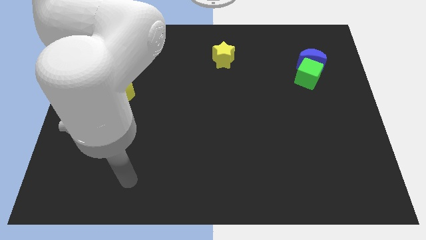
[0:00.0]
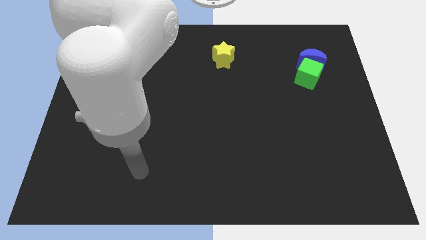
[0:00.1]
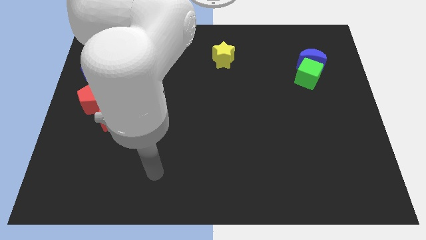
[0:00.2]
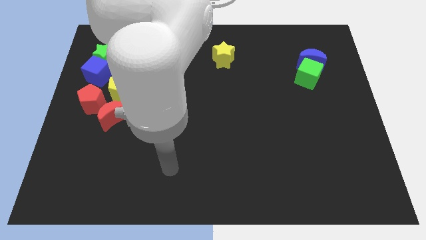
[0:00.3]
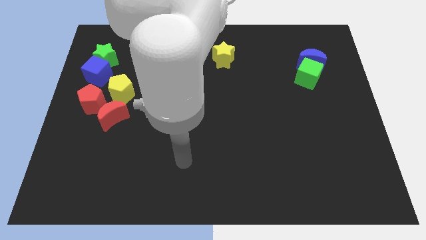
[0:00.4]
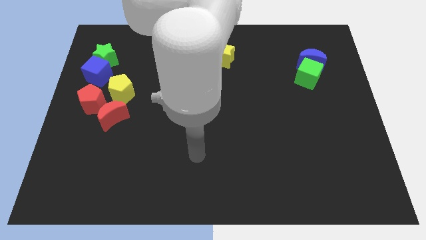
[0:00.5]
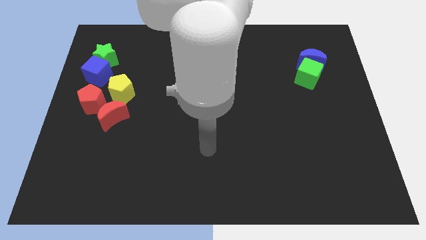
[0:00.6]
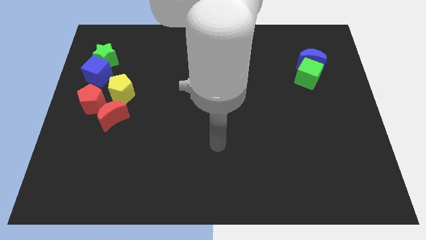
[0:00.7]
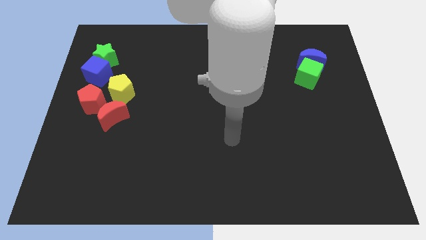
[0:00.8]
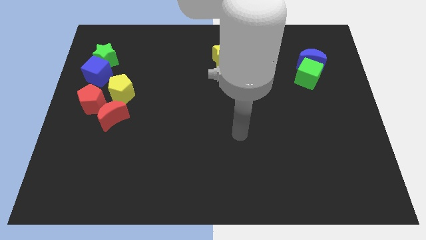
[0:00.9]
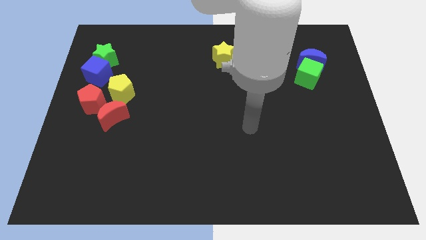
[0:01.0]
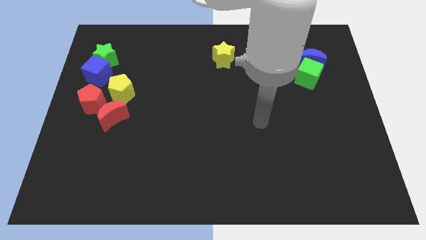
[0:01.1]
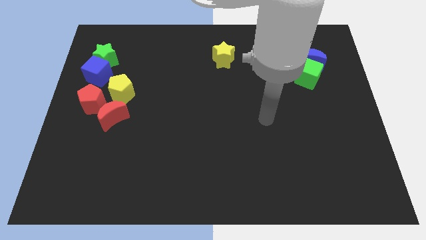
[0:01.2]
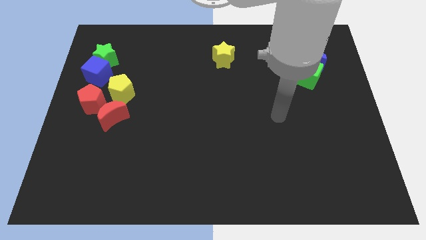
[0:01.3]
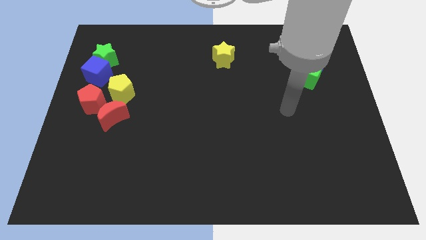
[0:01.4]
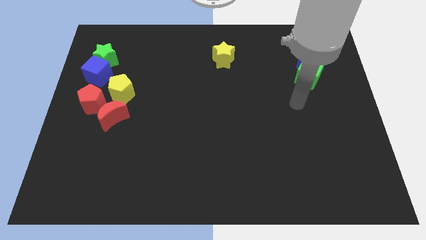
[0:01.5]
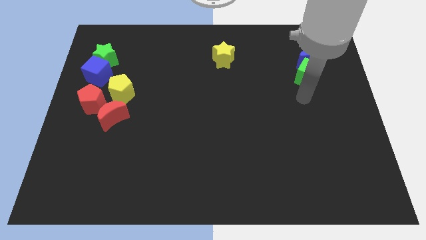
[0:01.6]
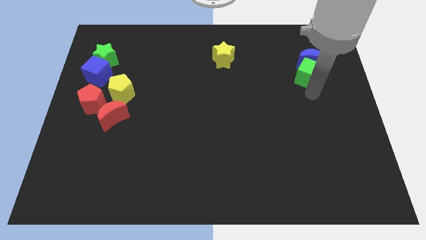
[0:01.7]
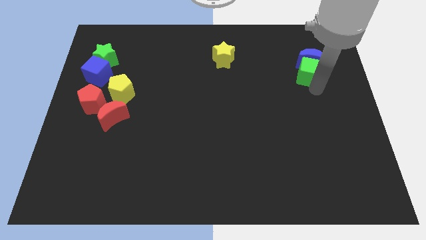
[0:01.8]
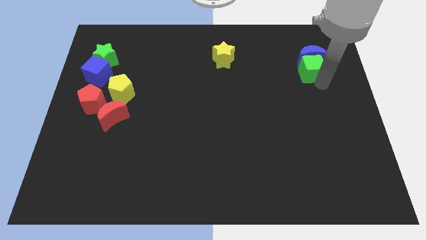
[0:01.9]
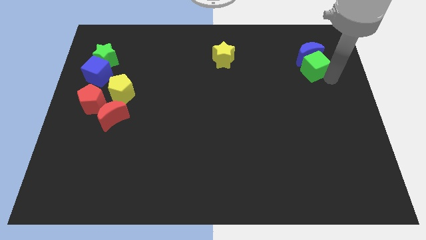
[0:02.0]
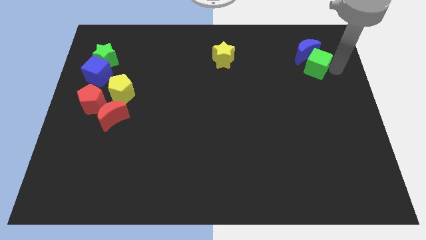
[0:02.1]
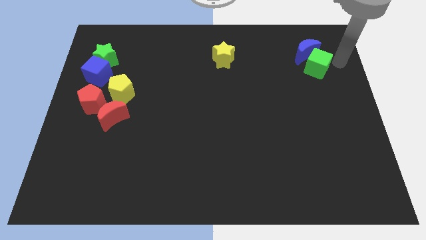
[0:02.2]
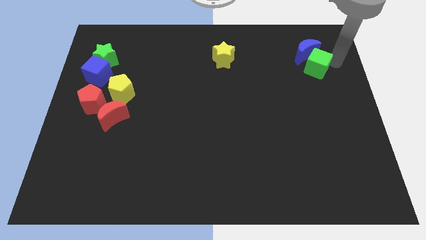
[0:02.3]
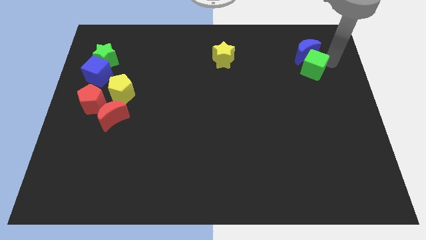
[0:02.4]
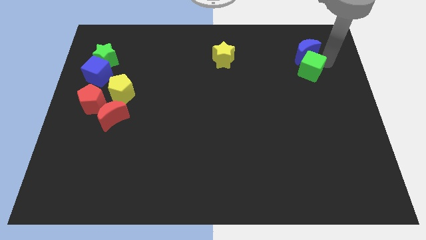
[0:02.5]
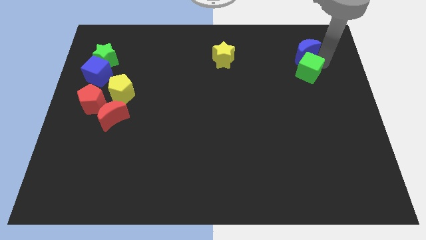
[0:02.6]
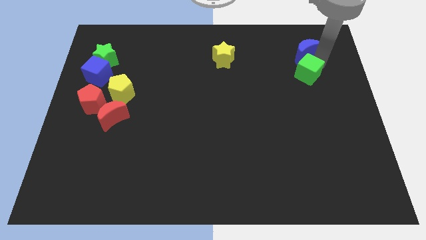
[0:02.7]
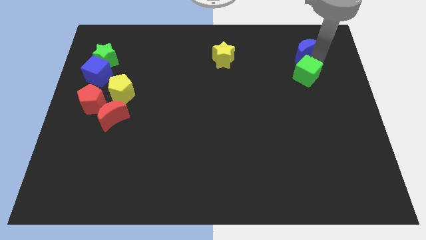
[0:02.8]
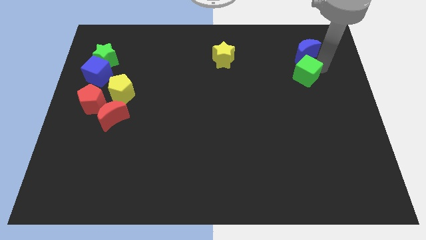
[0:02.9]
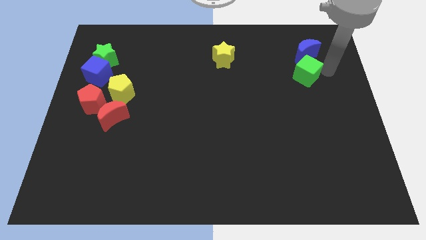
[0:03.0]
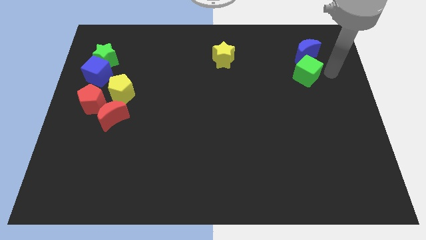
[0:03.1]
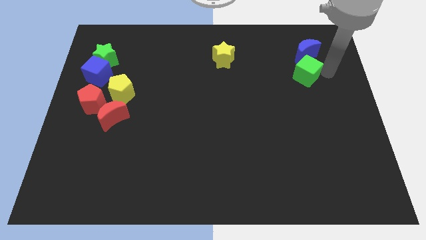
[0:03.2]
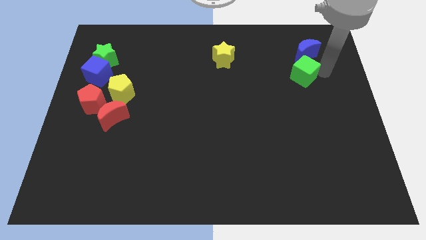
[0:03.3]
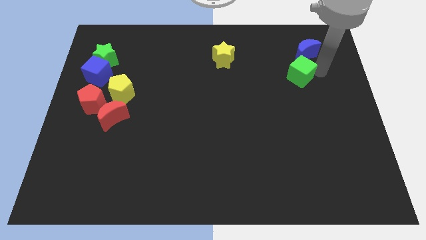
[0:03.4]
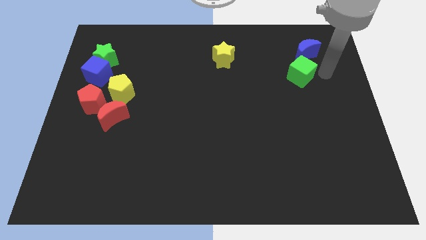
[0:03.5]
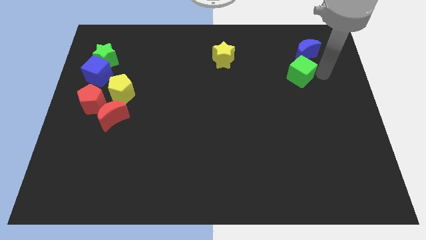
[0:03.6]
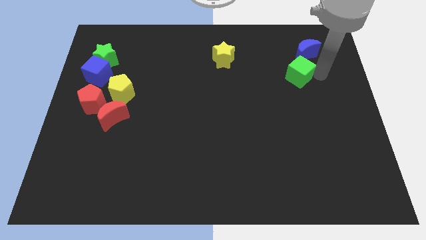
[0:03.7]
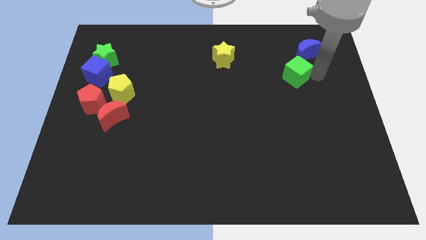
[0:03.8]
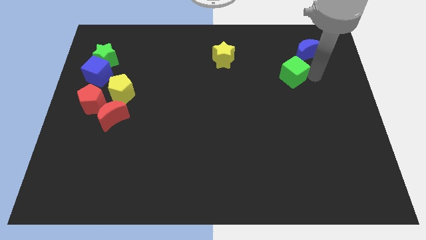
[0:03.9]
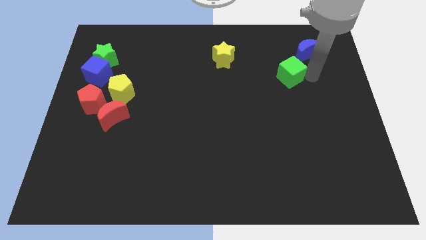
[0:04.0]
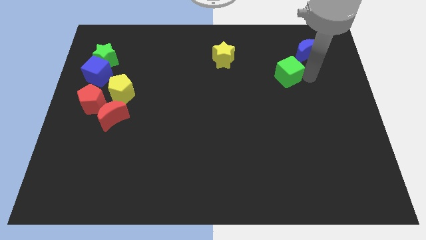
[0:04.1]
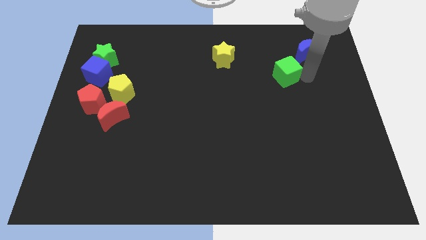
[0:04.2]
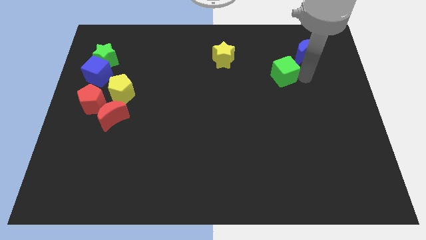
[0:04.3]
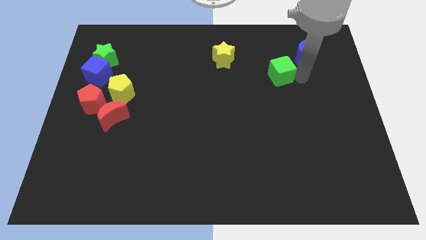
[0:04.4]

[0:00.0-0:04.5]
move the green cube to the left a little

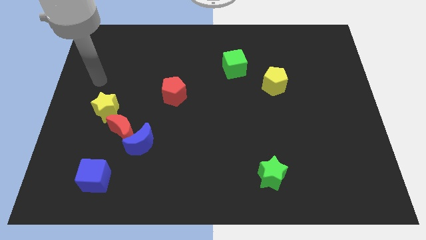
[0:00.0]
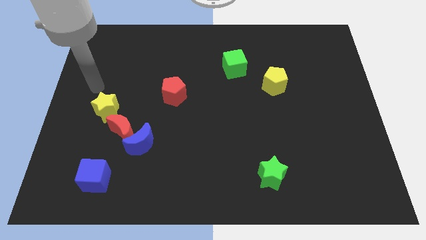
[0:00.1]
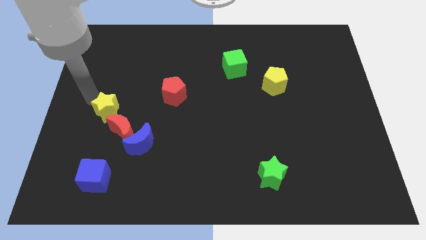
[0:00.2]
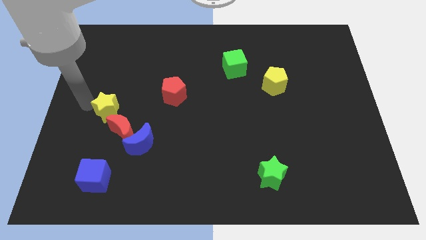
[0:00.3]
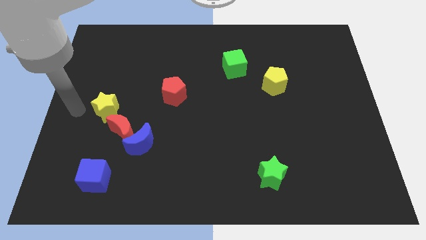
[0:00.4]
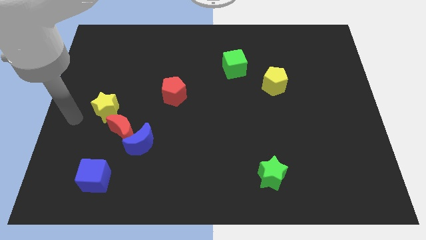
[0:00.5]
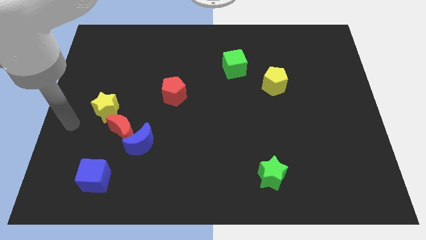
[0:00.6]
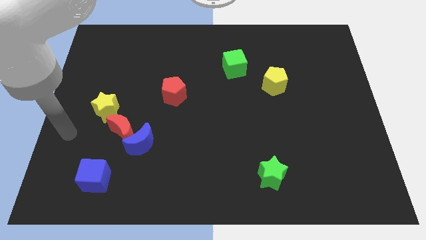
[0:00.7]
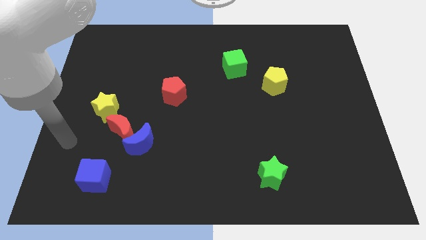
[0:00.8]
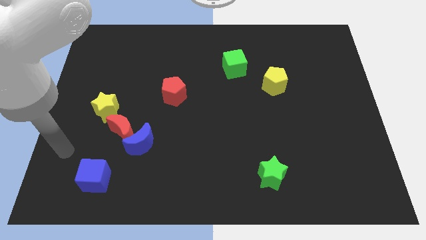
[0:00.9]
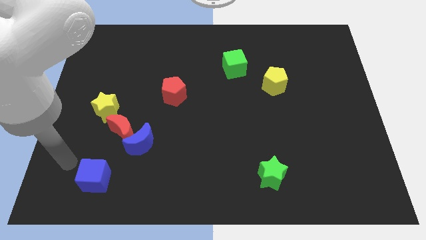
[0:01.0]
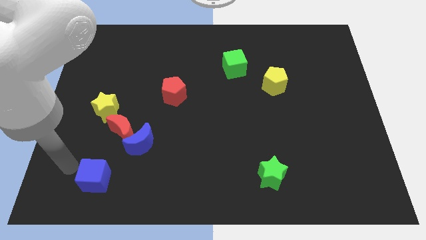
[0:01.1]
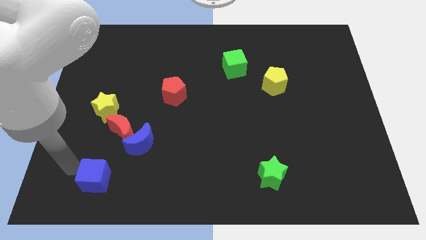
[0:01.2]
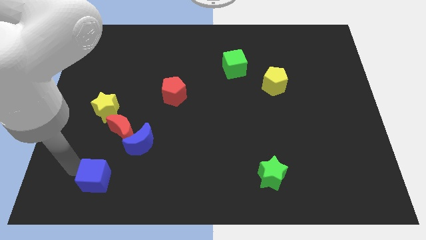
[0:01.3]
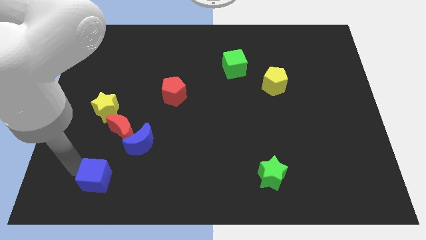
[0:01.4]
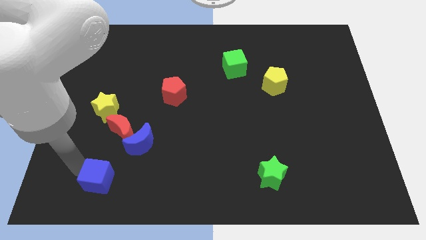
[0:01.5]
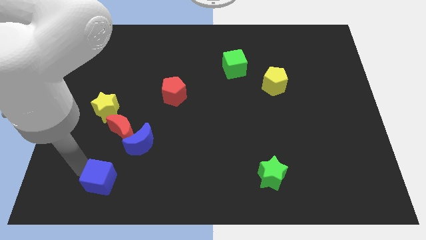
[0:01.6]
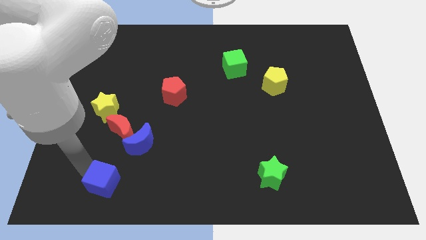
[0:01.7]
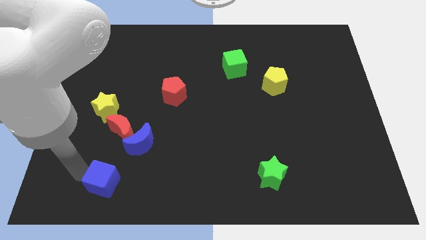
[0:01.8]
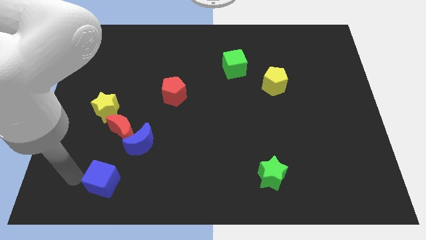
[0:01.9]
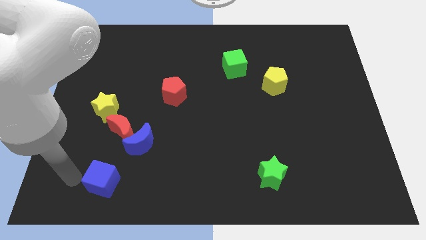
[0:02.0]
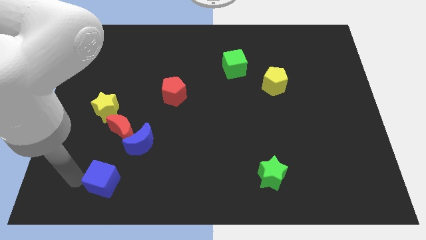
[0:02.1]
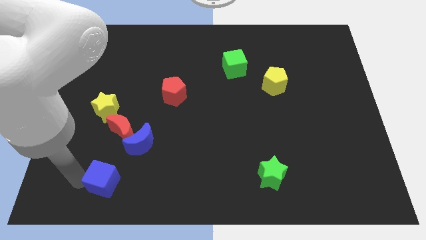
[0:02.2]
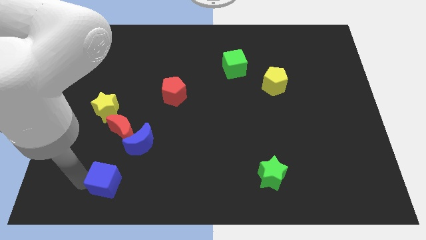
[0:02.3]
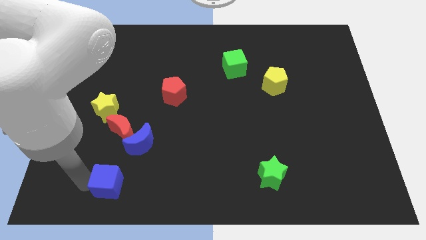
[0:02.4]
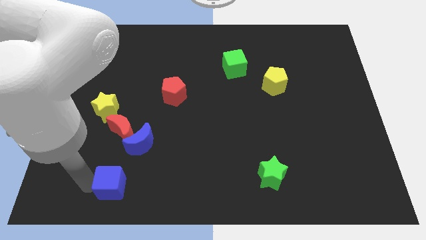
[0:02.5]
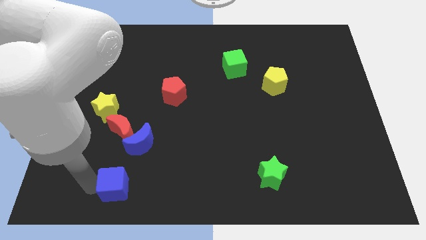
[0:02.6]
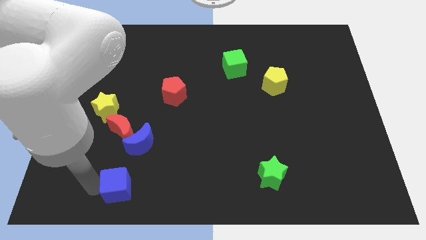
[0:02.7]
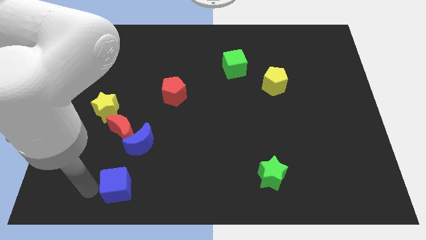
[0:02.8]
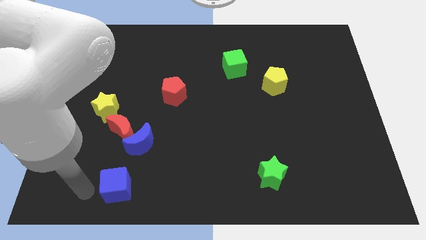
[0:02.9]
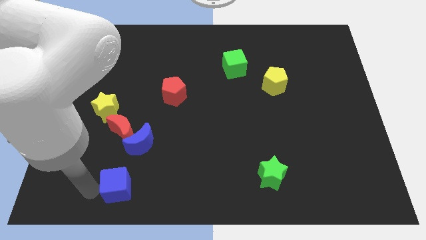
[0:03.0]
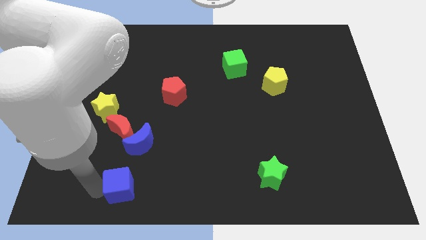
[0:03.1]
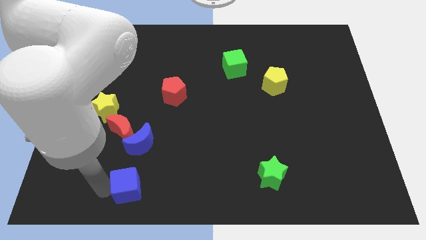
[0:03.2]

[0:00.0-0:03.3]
move the blue cube right a bit
